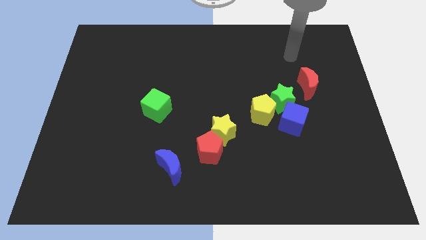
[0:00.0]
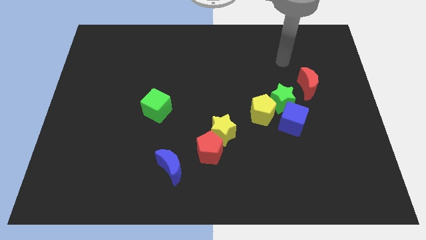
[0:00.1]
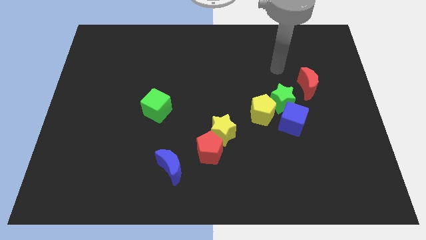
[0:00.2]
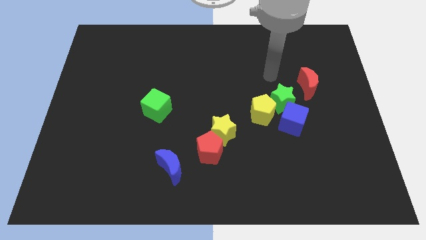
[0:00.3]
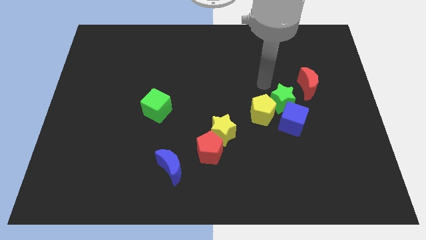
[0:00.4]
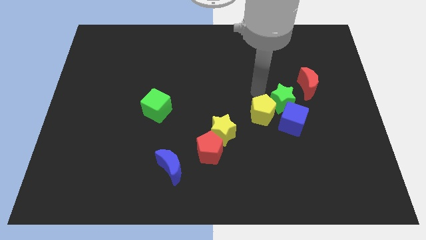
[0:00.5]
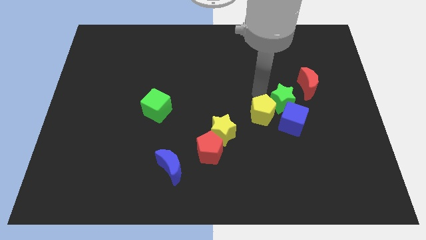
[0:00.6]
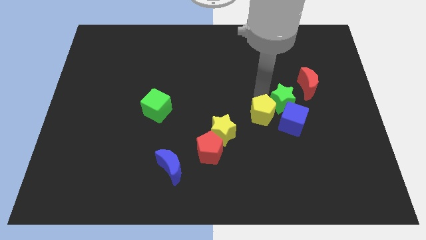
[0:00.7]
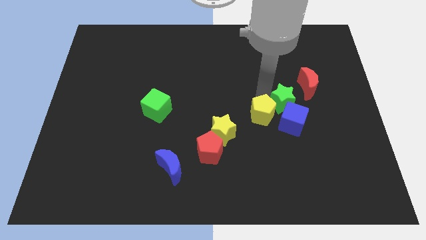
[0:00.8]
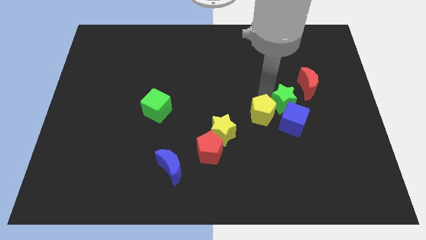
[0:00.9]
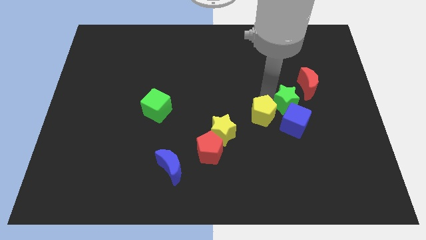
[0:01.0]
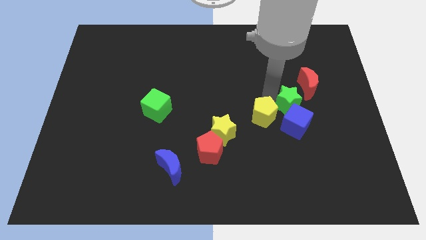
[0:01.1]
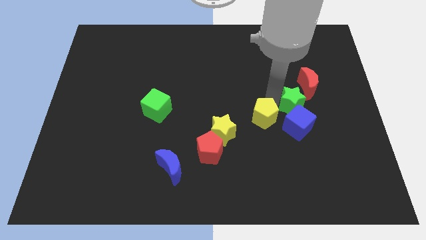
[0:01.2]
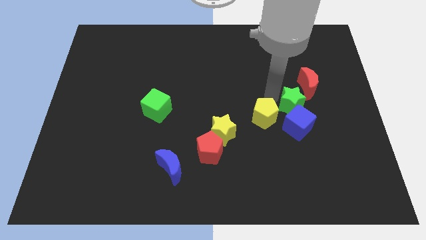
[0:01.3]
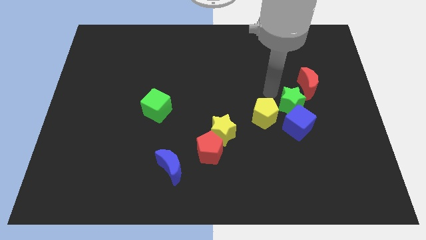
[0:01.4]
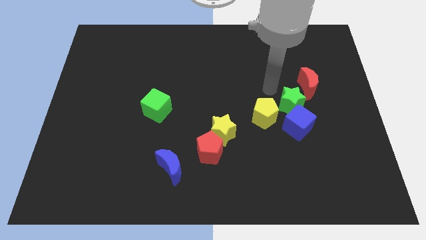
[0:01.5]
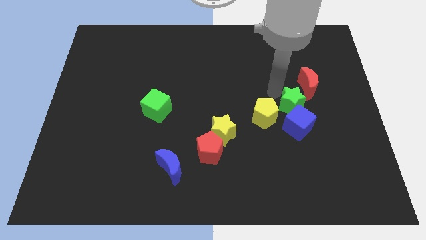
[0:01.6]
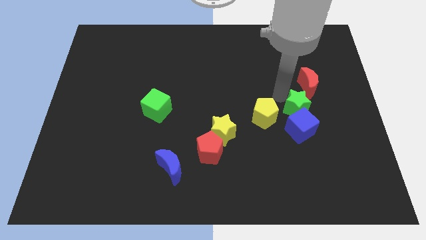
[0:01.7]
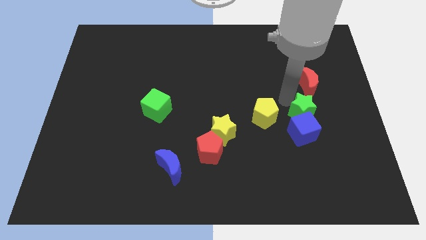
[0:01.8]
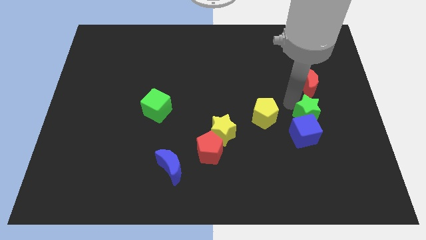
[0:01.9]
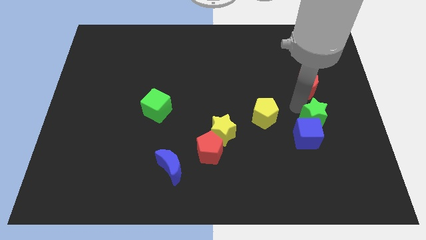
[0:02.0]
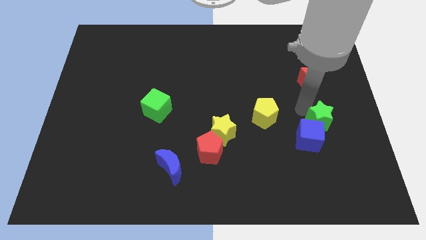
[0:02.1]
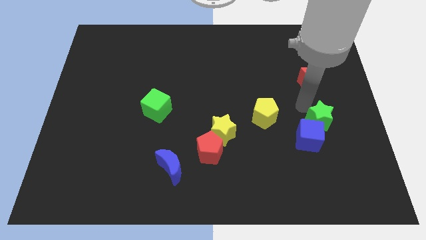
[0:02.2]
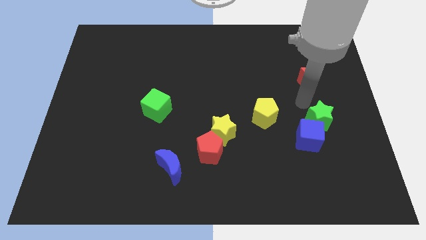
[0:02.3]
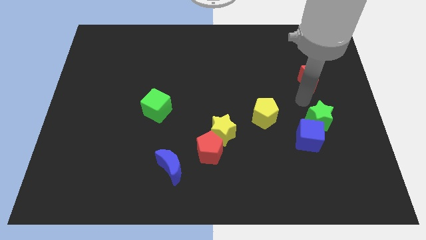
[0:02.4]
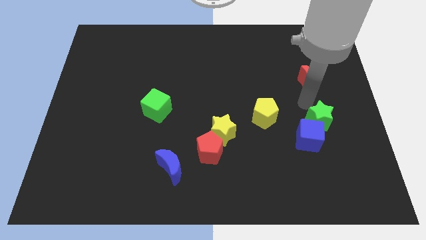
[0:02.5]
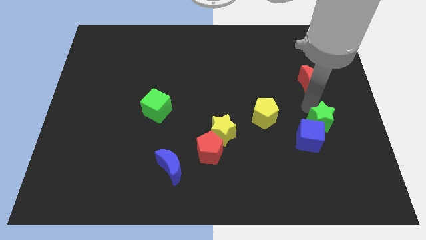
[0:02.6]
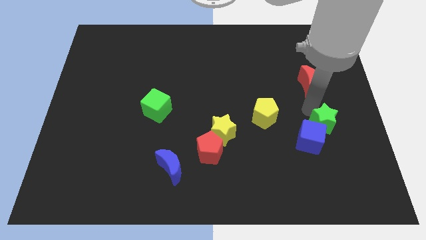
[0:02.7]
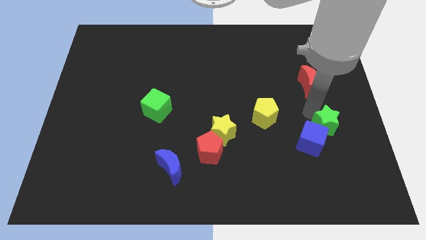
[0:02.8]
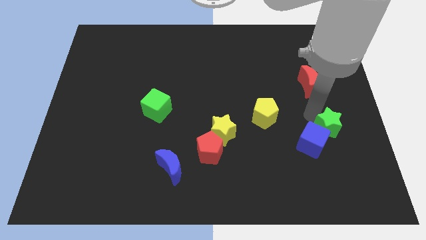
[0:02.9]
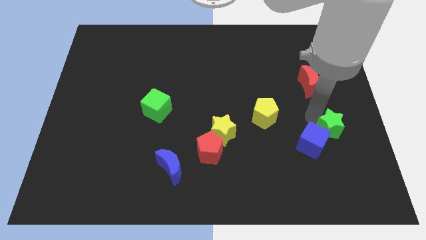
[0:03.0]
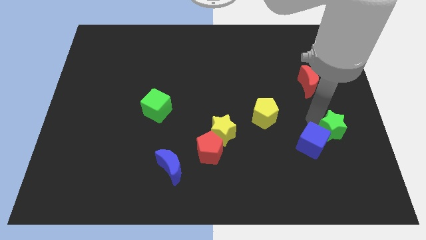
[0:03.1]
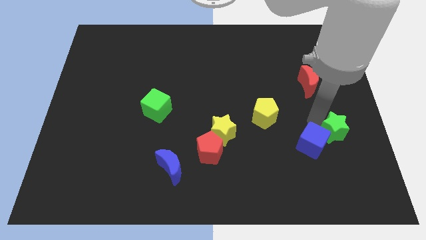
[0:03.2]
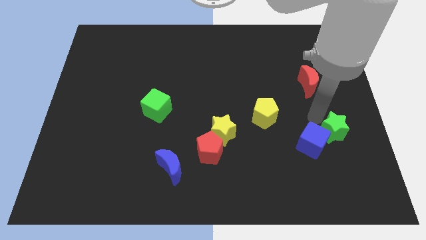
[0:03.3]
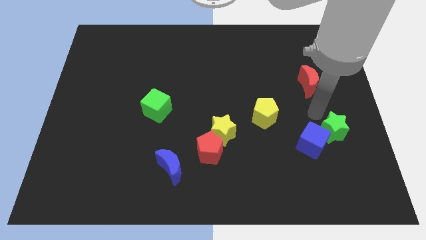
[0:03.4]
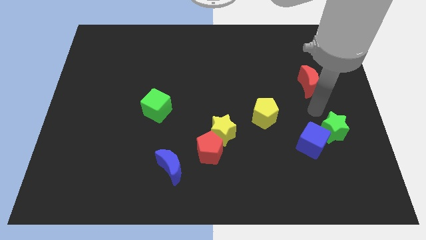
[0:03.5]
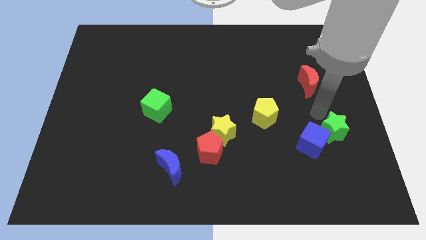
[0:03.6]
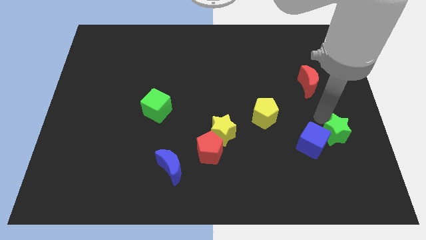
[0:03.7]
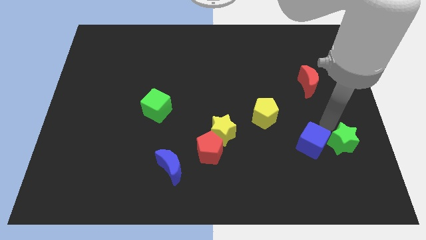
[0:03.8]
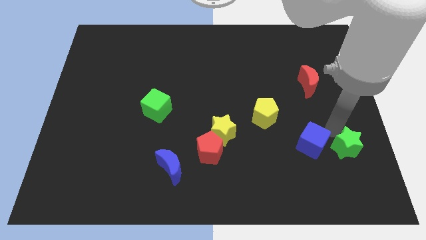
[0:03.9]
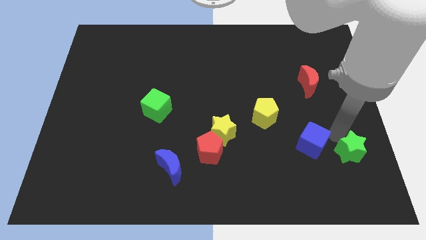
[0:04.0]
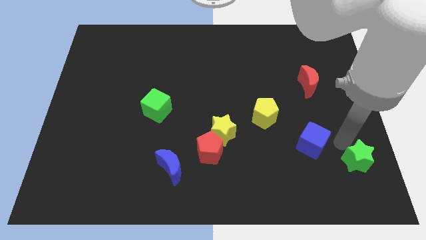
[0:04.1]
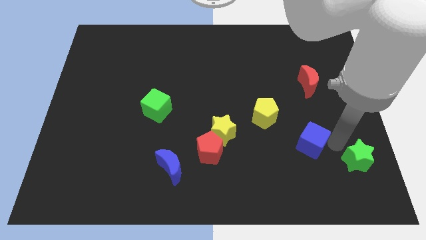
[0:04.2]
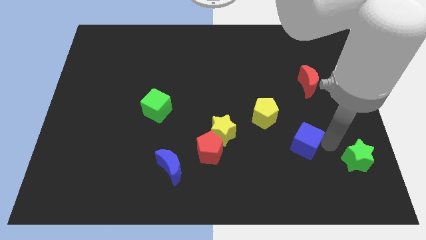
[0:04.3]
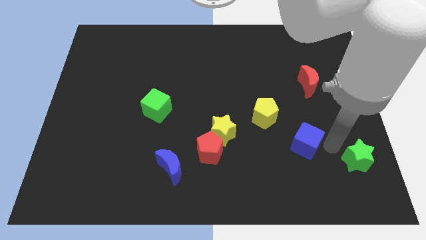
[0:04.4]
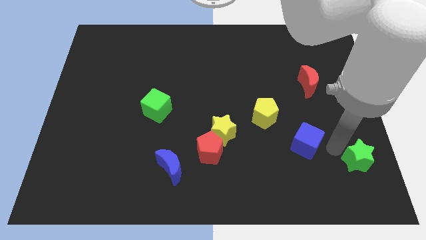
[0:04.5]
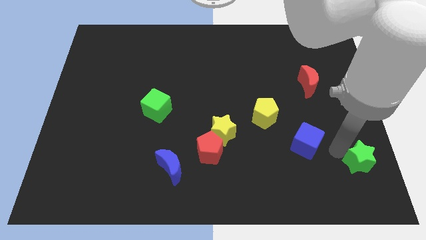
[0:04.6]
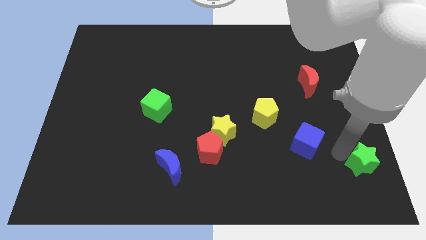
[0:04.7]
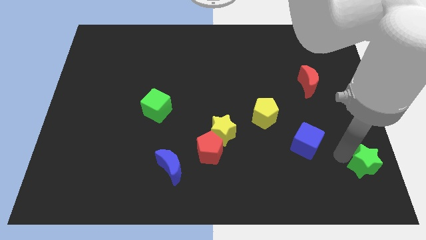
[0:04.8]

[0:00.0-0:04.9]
push the green star to the lower right corner

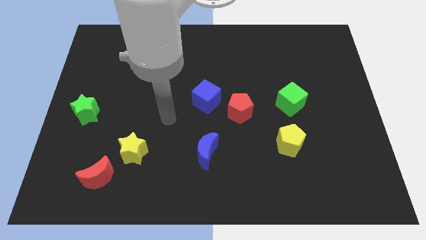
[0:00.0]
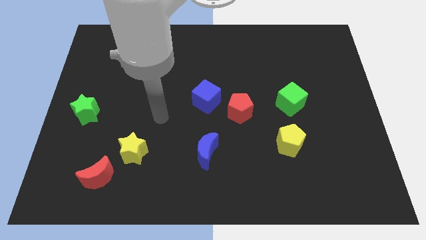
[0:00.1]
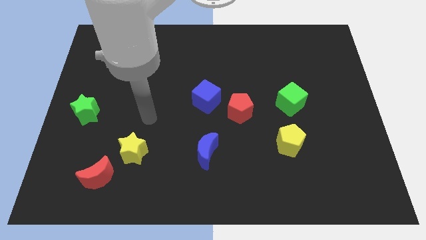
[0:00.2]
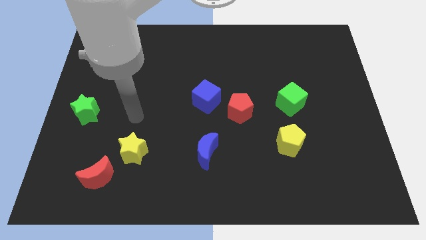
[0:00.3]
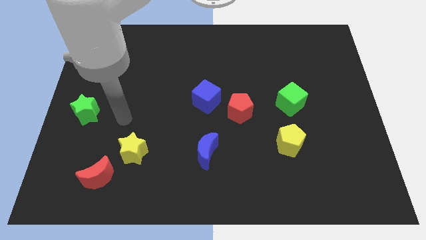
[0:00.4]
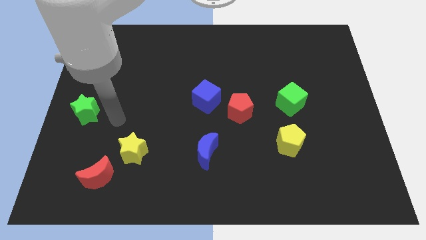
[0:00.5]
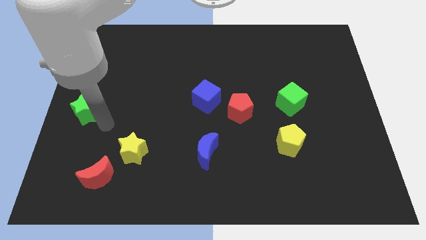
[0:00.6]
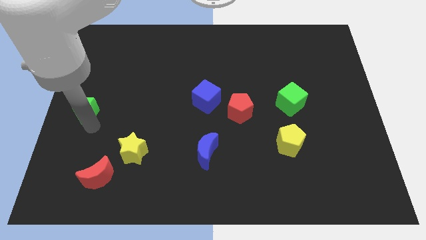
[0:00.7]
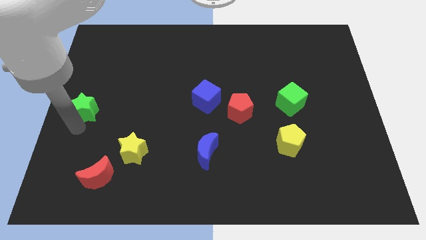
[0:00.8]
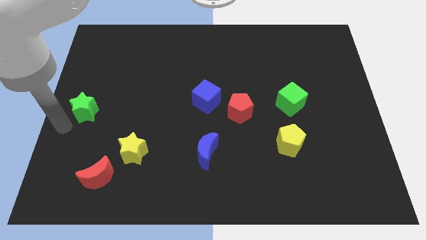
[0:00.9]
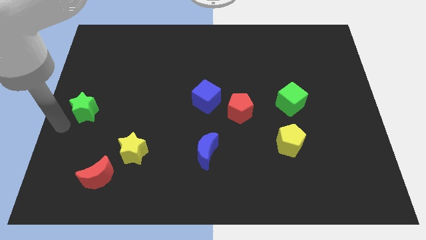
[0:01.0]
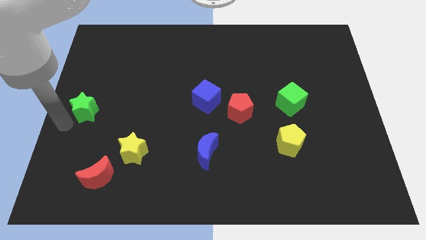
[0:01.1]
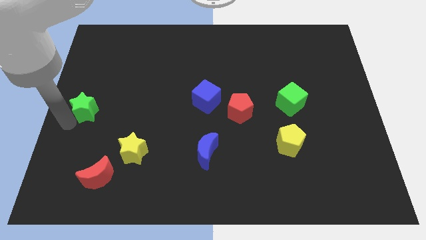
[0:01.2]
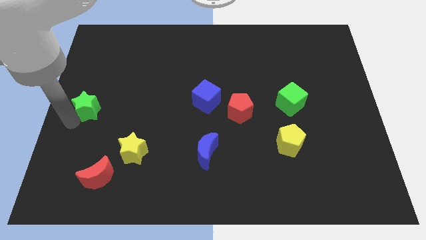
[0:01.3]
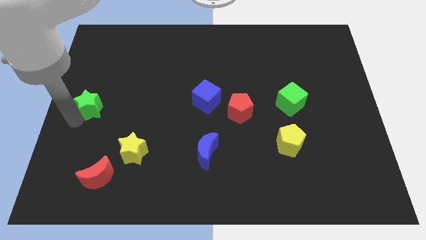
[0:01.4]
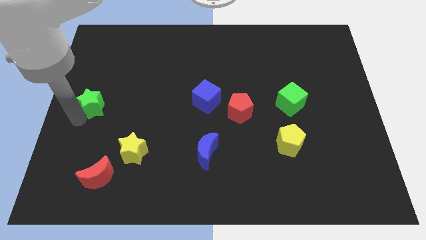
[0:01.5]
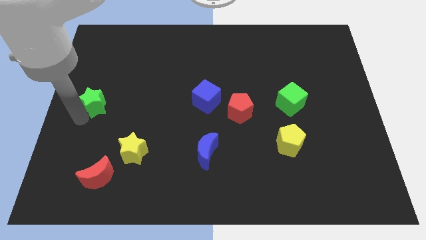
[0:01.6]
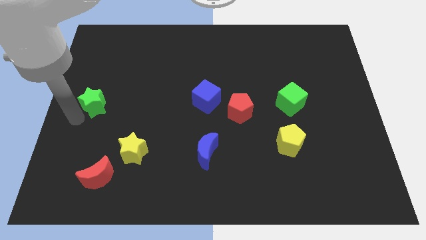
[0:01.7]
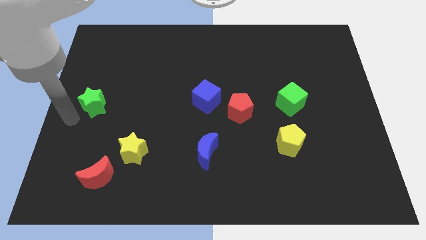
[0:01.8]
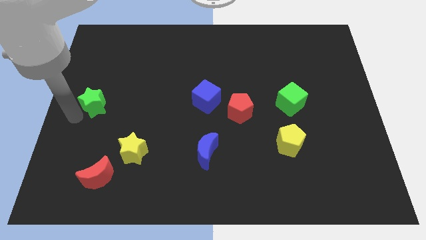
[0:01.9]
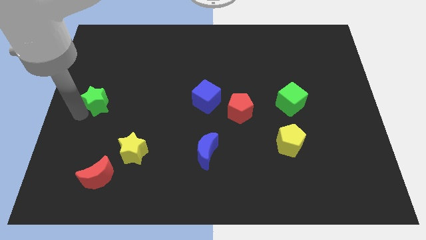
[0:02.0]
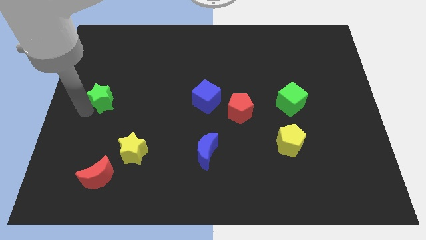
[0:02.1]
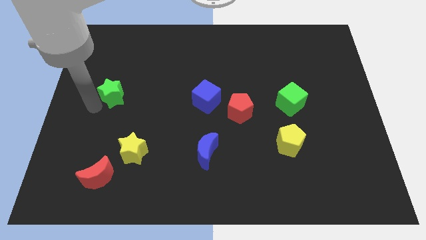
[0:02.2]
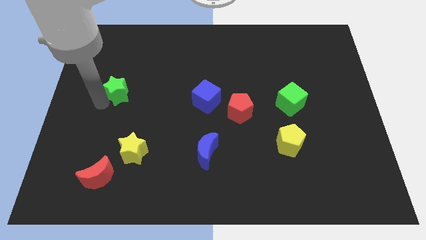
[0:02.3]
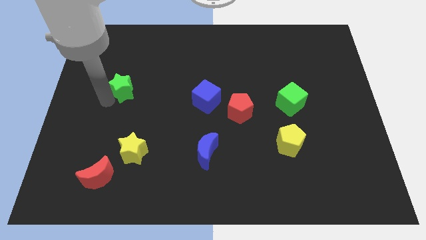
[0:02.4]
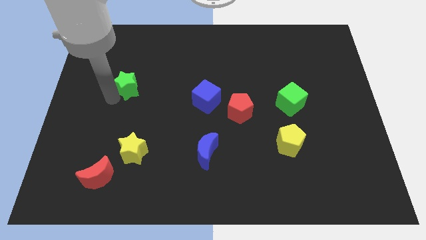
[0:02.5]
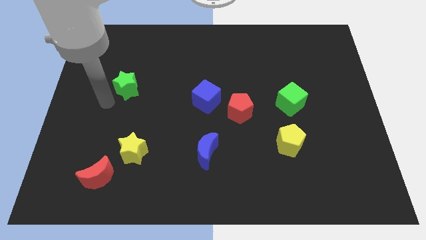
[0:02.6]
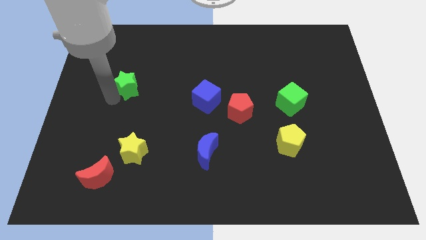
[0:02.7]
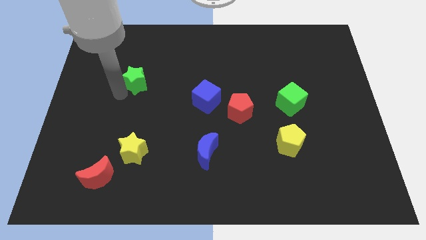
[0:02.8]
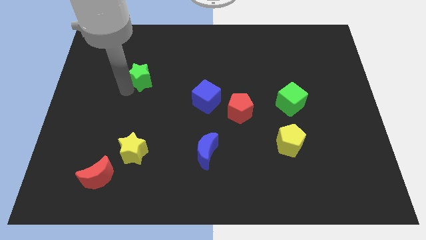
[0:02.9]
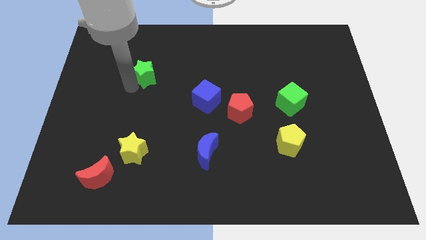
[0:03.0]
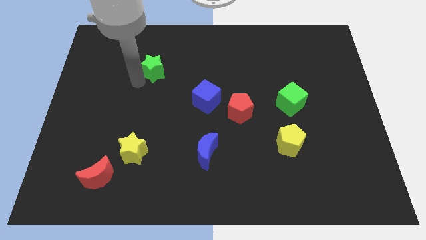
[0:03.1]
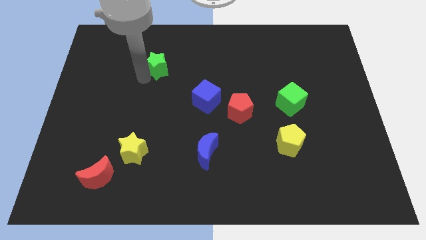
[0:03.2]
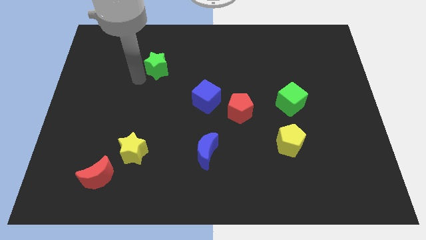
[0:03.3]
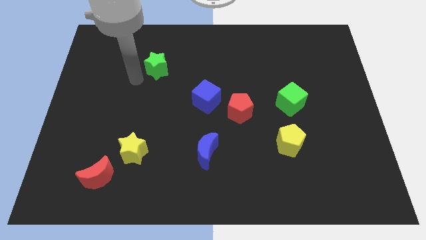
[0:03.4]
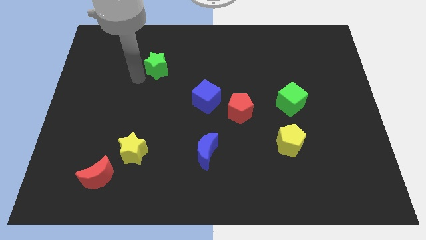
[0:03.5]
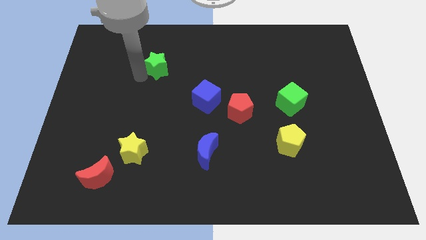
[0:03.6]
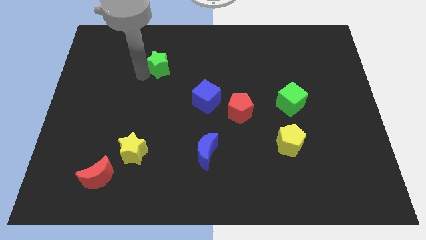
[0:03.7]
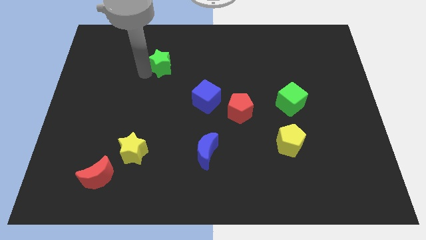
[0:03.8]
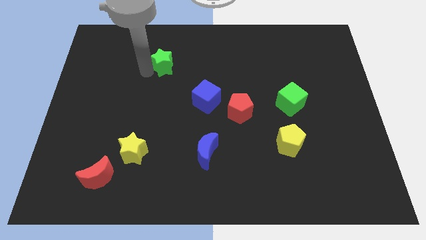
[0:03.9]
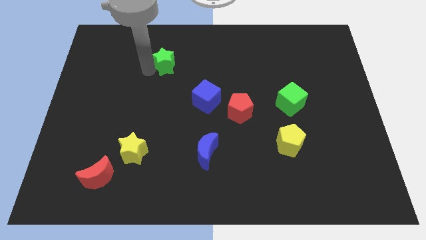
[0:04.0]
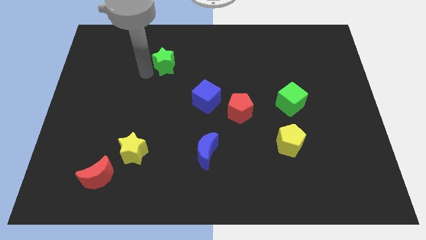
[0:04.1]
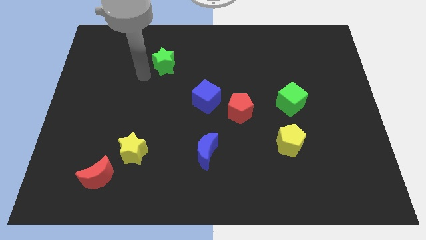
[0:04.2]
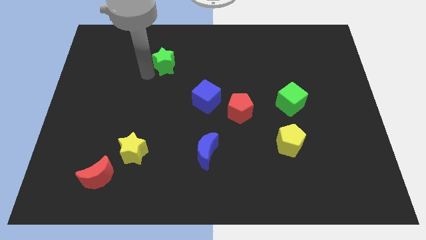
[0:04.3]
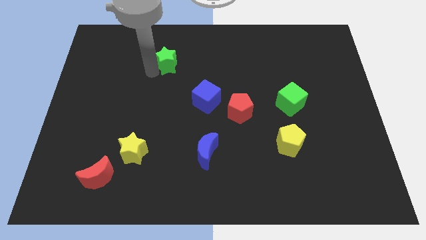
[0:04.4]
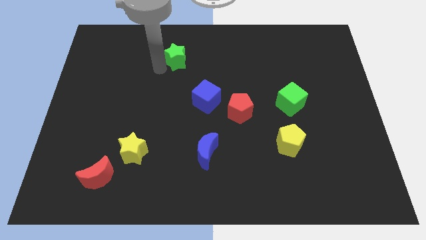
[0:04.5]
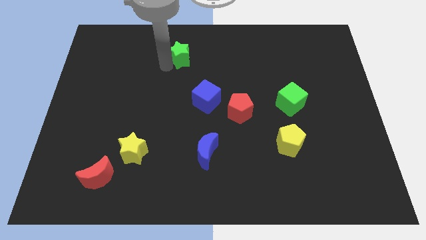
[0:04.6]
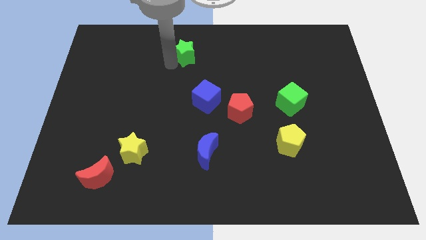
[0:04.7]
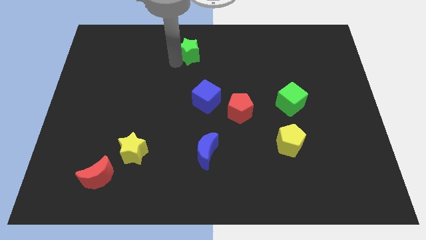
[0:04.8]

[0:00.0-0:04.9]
slide the green star to the top side
